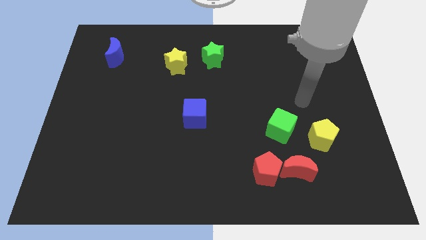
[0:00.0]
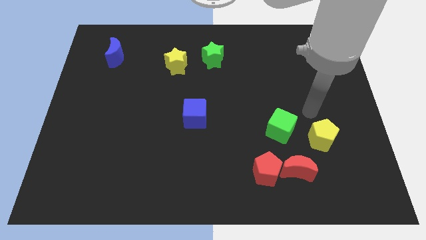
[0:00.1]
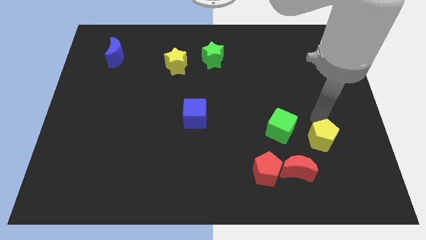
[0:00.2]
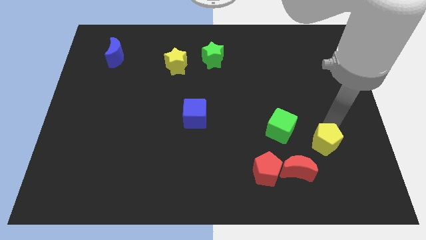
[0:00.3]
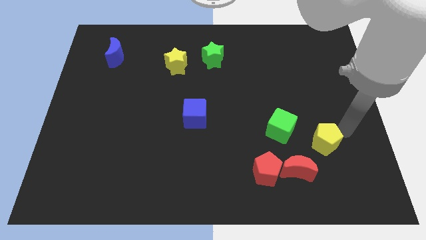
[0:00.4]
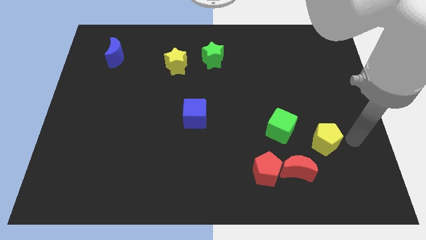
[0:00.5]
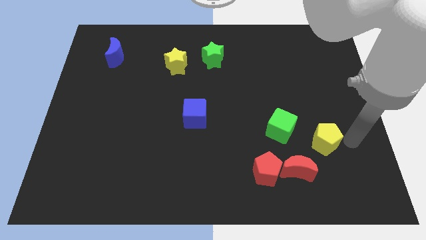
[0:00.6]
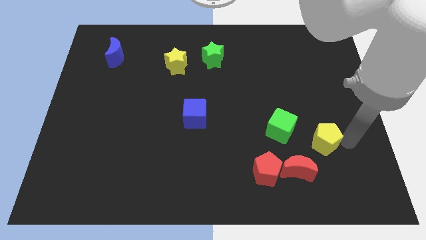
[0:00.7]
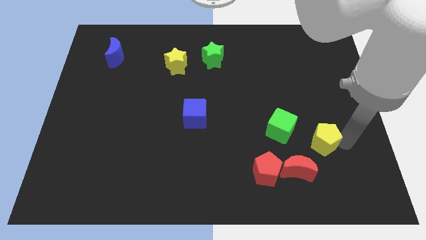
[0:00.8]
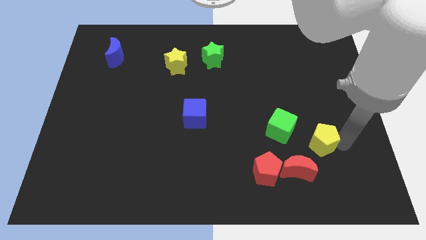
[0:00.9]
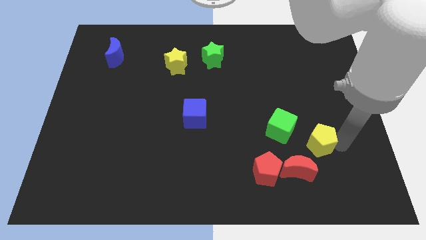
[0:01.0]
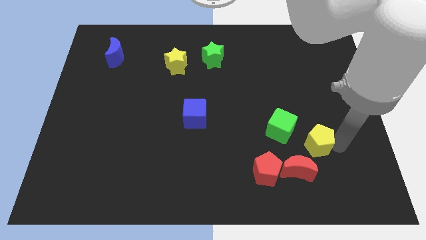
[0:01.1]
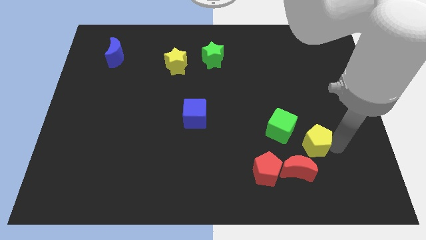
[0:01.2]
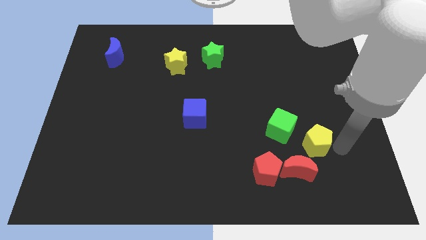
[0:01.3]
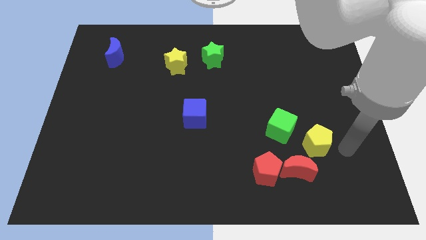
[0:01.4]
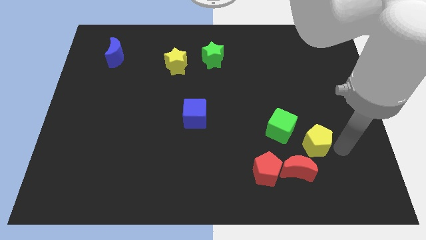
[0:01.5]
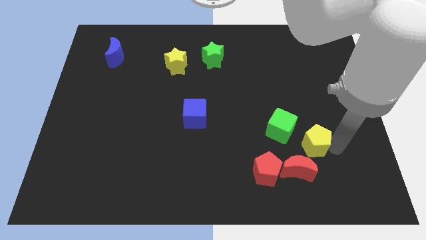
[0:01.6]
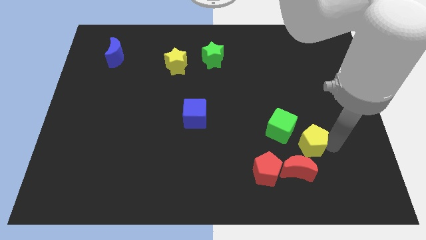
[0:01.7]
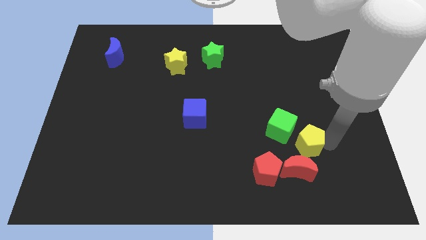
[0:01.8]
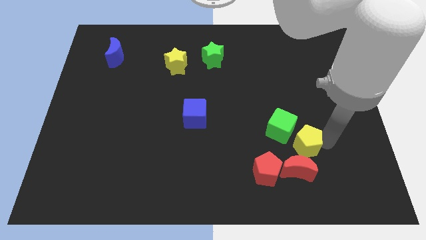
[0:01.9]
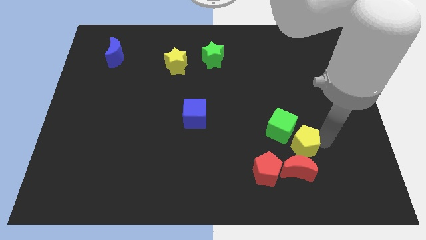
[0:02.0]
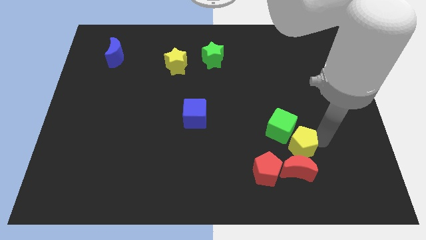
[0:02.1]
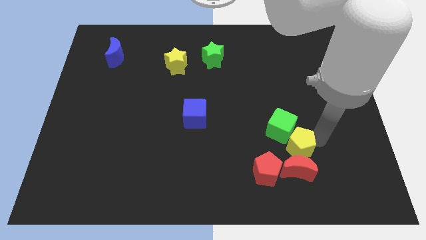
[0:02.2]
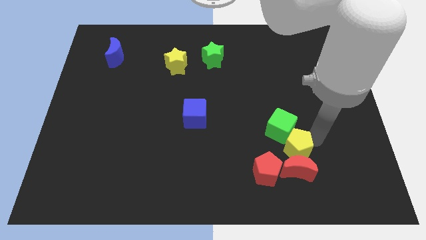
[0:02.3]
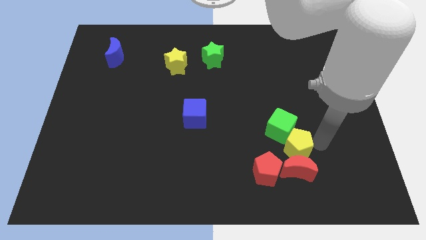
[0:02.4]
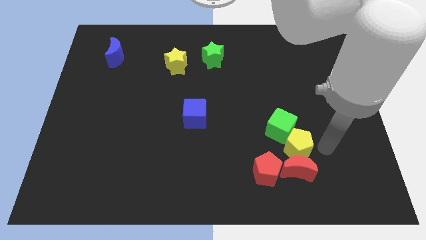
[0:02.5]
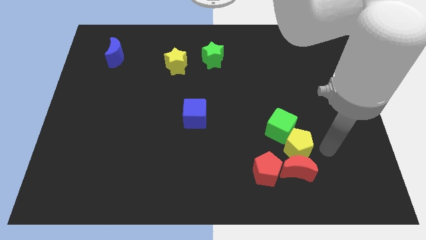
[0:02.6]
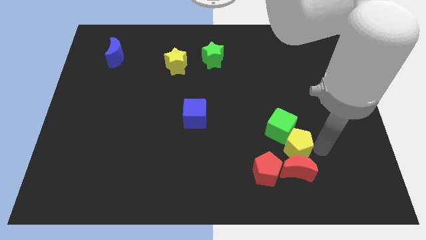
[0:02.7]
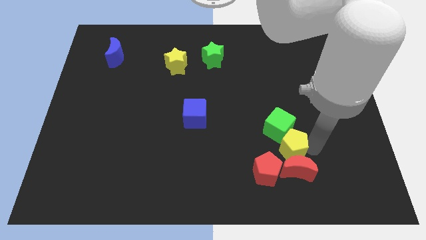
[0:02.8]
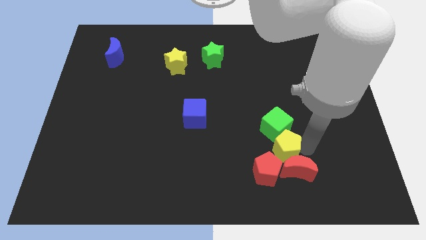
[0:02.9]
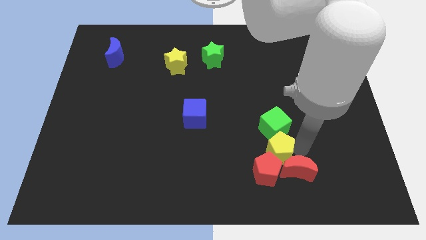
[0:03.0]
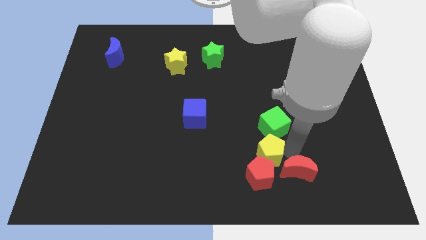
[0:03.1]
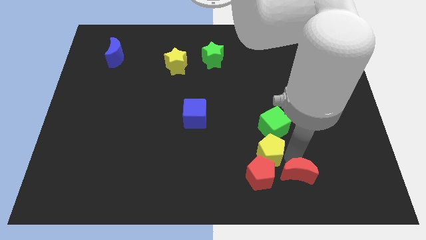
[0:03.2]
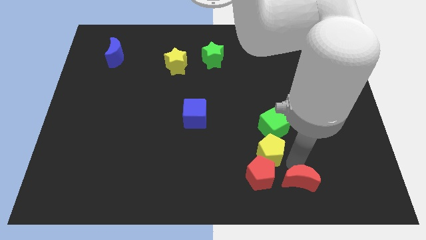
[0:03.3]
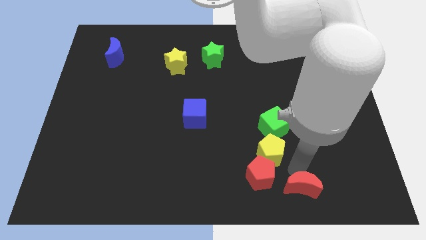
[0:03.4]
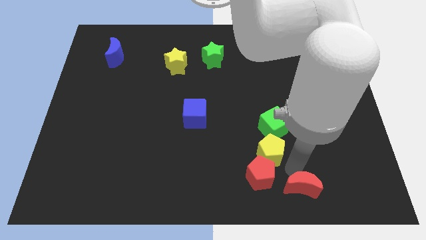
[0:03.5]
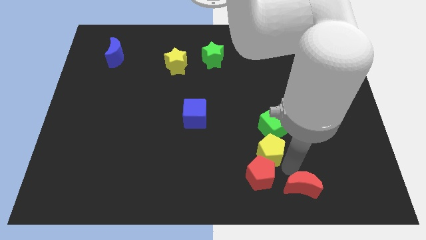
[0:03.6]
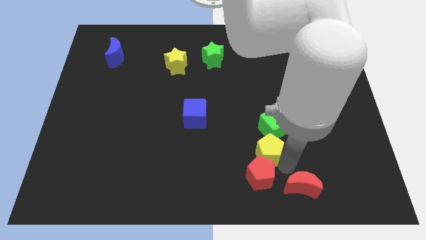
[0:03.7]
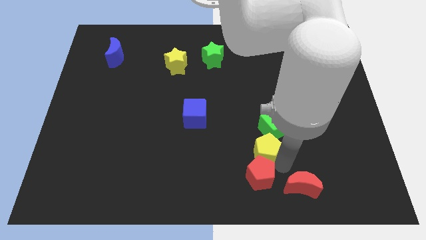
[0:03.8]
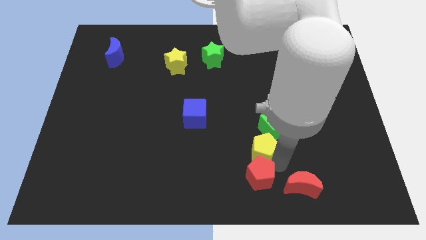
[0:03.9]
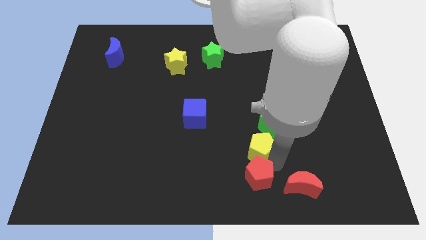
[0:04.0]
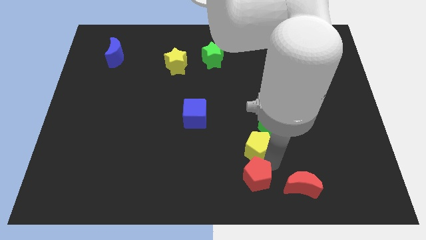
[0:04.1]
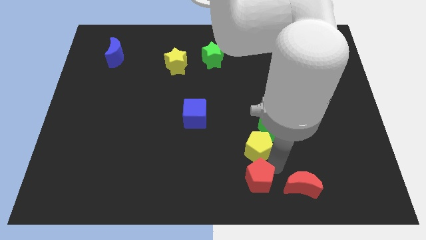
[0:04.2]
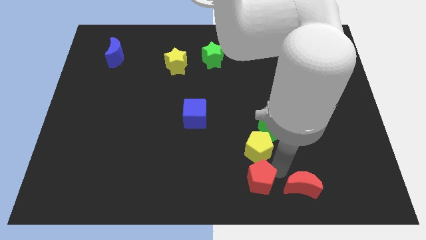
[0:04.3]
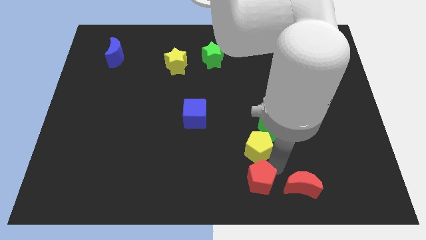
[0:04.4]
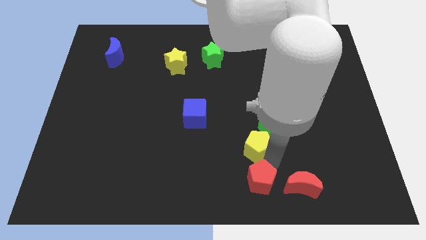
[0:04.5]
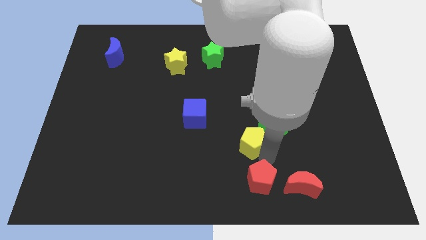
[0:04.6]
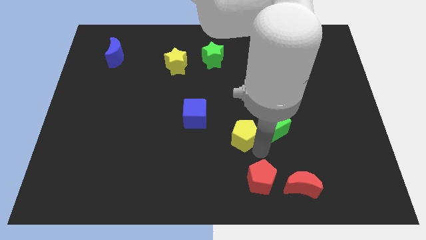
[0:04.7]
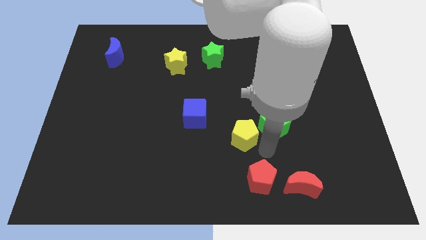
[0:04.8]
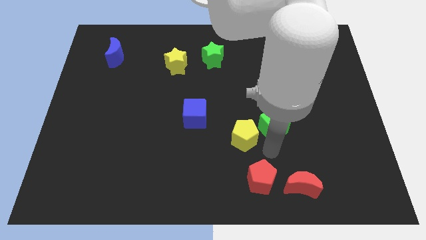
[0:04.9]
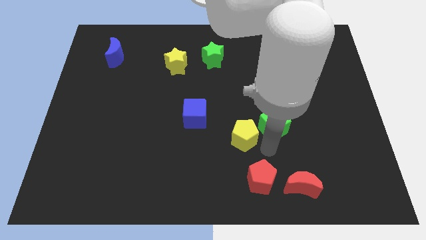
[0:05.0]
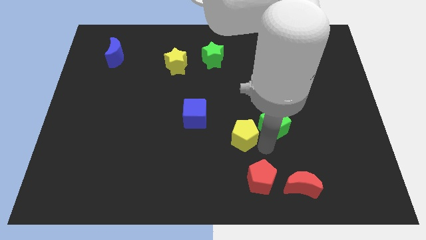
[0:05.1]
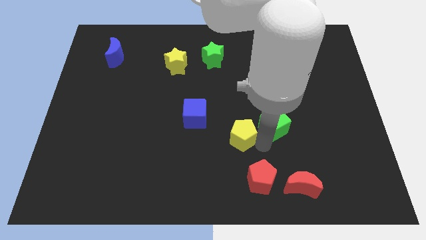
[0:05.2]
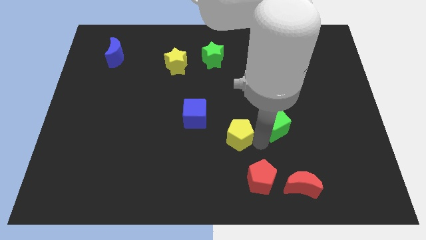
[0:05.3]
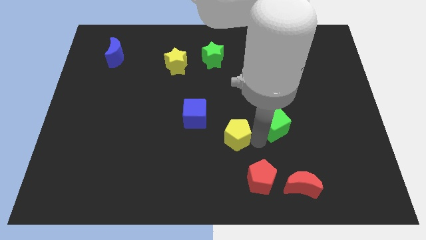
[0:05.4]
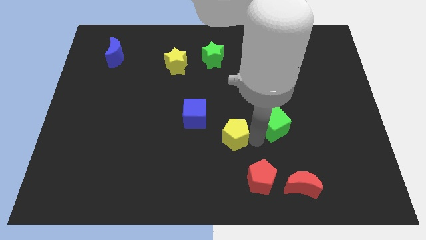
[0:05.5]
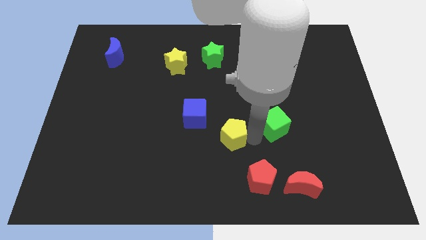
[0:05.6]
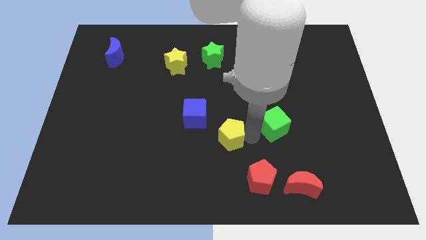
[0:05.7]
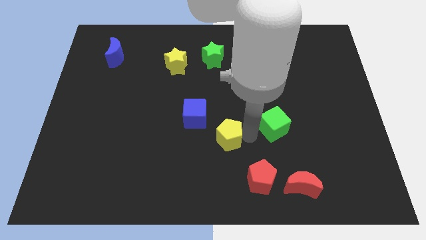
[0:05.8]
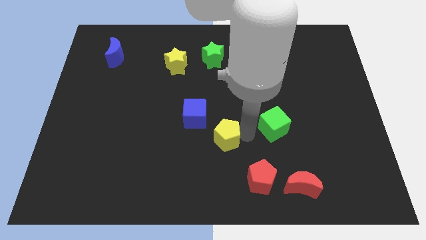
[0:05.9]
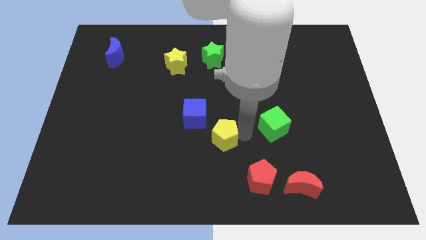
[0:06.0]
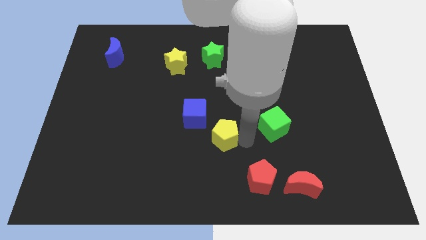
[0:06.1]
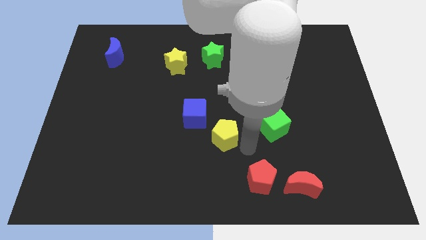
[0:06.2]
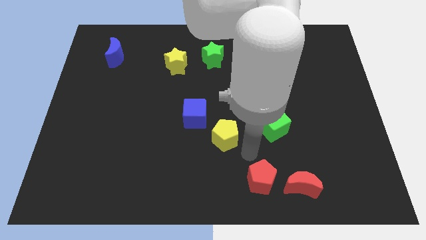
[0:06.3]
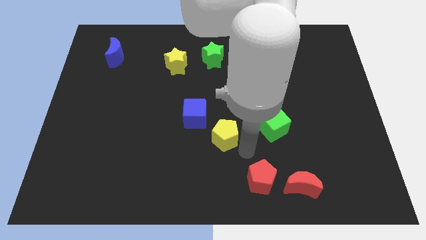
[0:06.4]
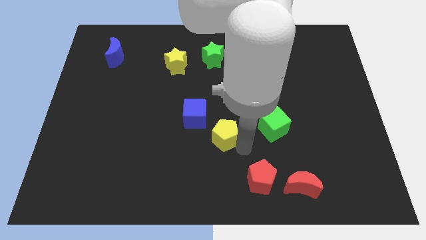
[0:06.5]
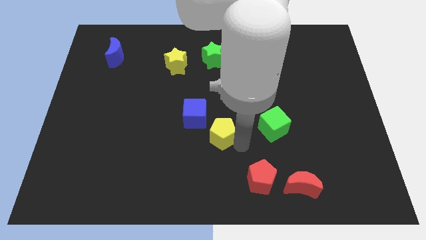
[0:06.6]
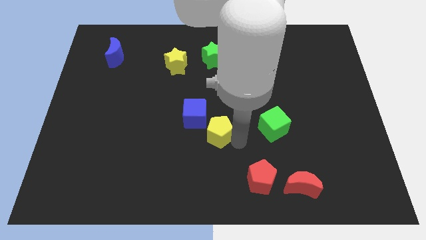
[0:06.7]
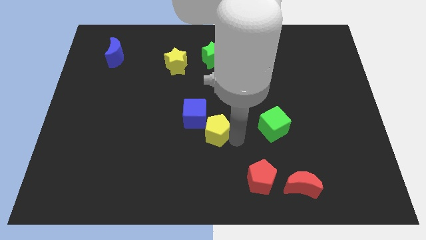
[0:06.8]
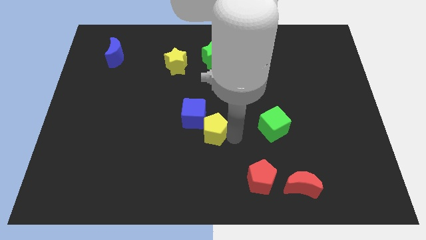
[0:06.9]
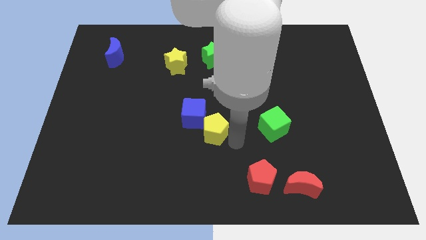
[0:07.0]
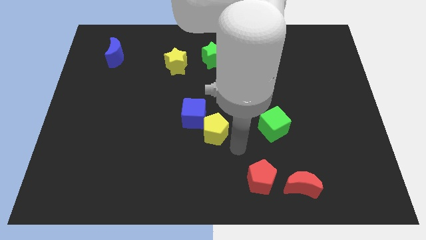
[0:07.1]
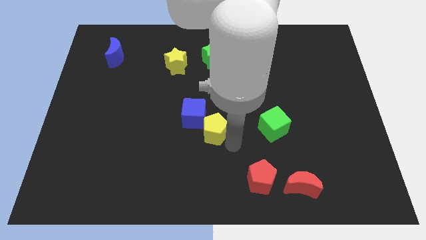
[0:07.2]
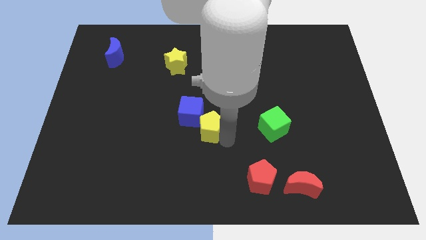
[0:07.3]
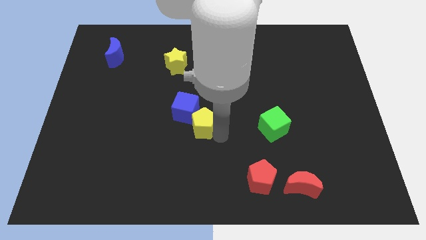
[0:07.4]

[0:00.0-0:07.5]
push the yellow pentagon close to the blue cube

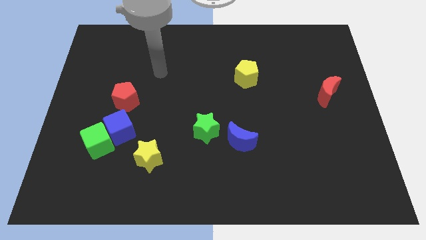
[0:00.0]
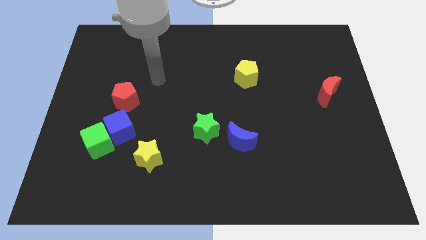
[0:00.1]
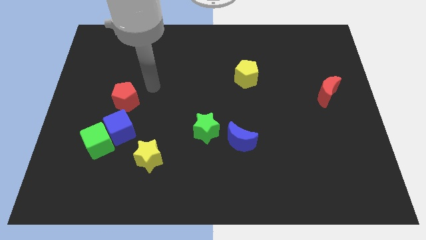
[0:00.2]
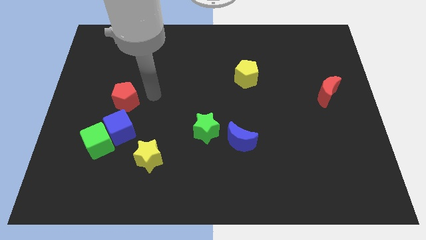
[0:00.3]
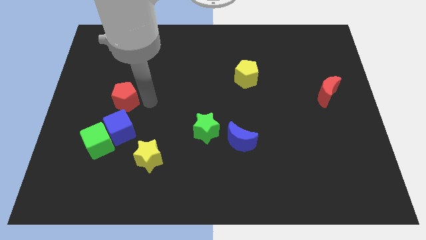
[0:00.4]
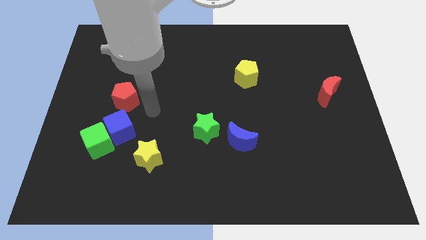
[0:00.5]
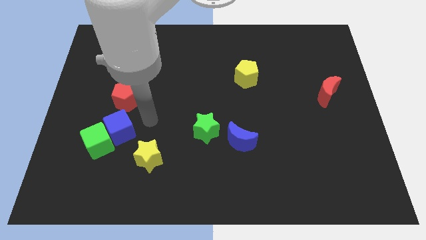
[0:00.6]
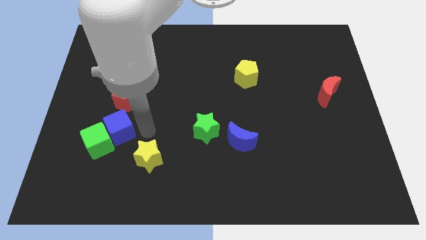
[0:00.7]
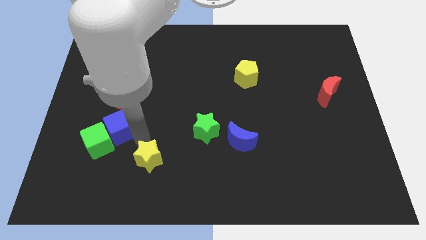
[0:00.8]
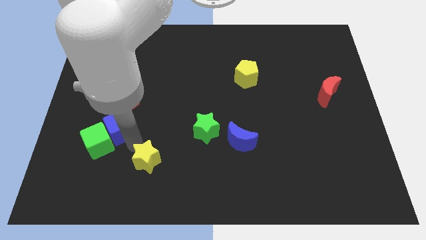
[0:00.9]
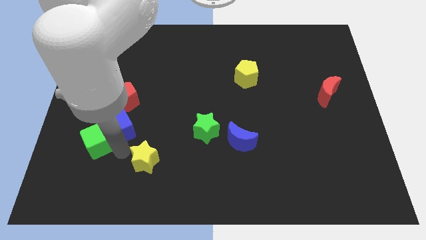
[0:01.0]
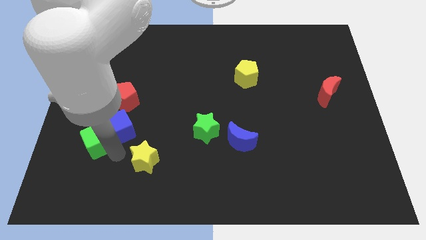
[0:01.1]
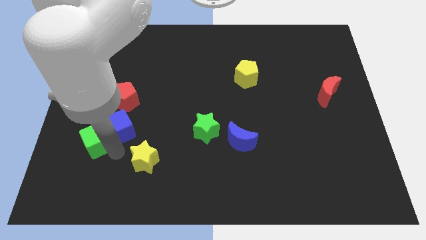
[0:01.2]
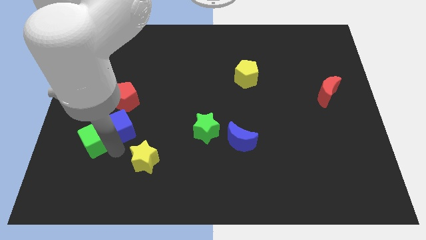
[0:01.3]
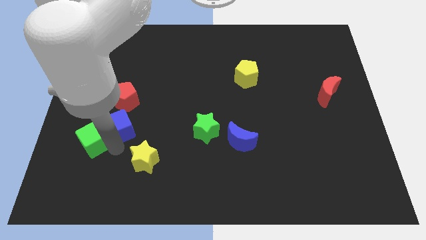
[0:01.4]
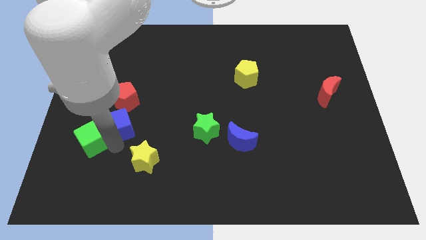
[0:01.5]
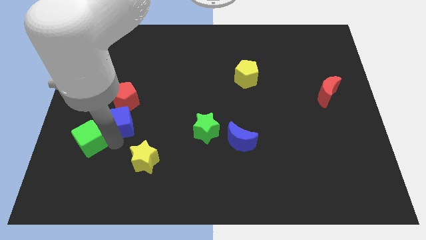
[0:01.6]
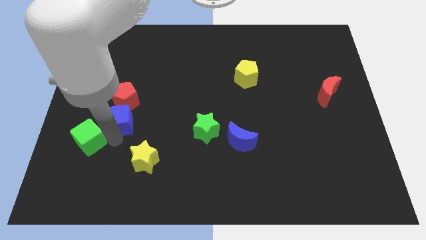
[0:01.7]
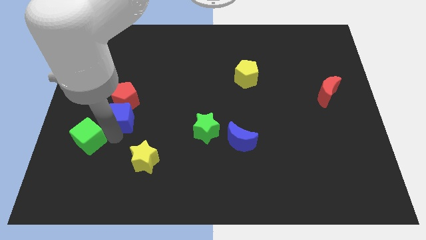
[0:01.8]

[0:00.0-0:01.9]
move the blue cube close to the red pentagon
